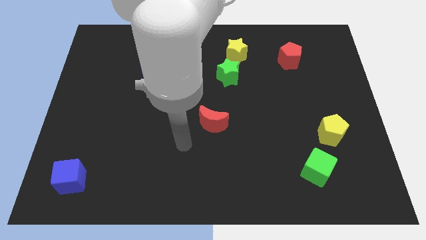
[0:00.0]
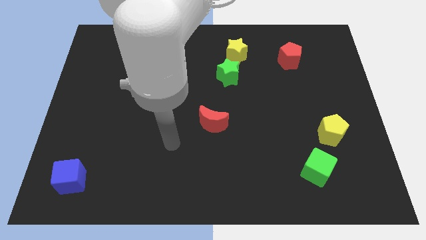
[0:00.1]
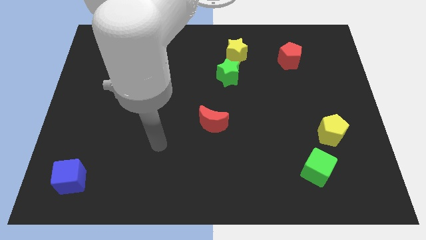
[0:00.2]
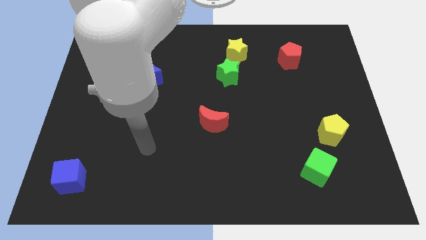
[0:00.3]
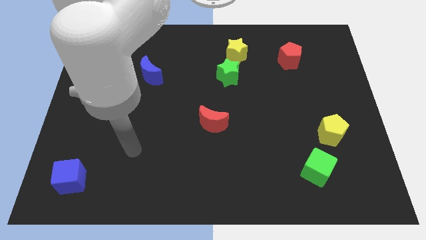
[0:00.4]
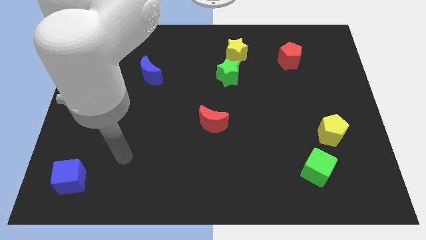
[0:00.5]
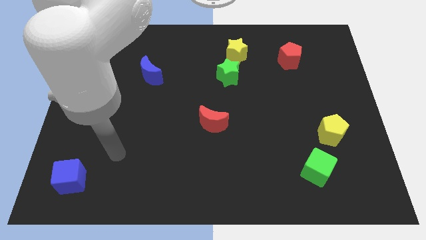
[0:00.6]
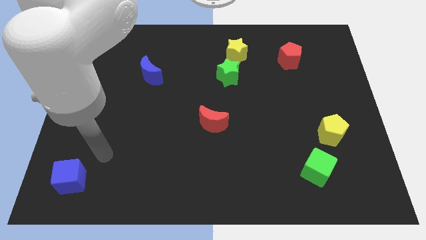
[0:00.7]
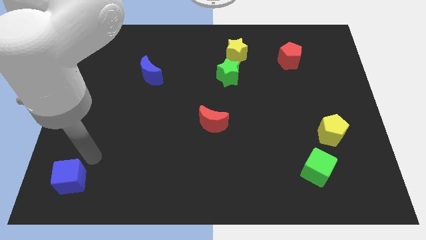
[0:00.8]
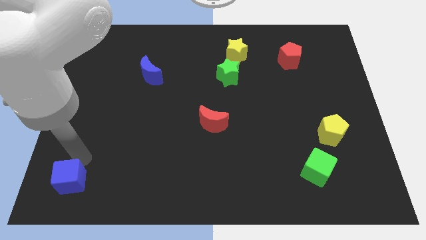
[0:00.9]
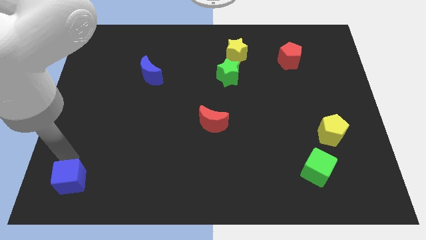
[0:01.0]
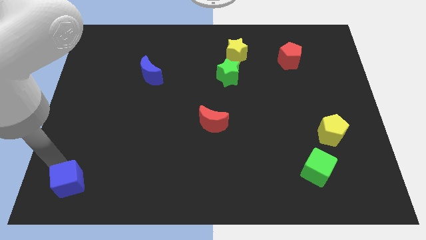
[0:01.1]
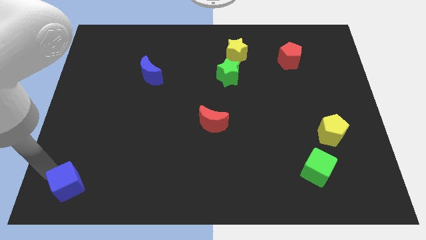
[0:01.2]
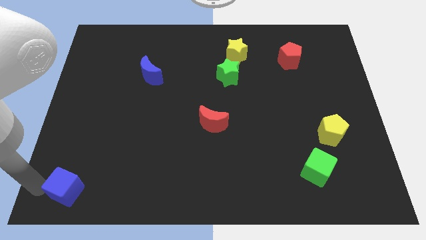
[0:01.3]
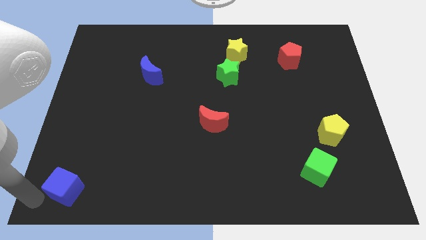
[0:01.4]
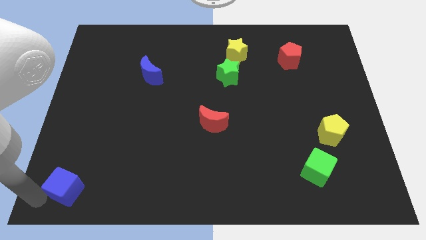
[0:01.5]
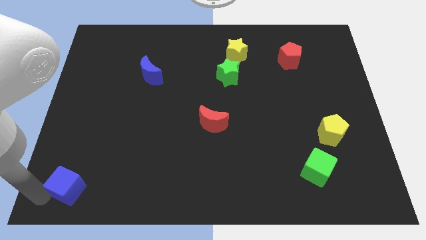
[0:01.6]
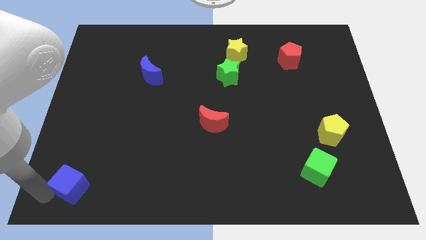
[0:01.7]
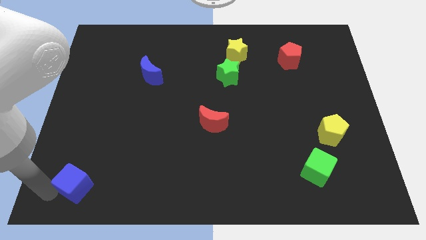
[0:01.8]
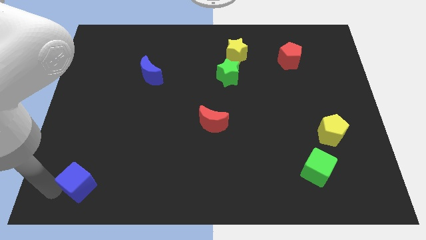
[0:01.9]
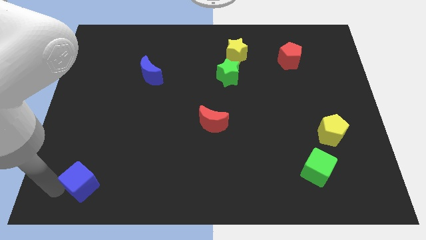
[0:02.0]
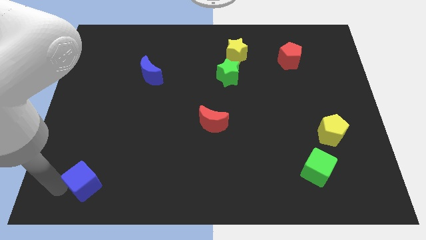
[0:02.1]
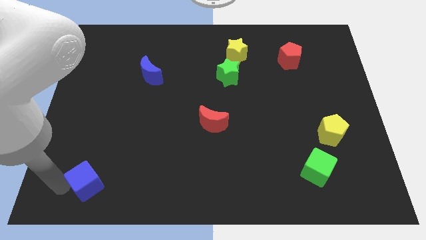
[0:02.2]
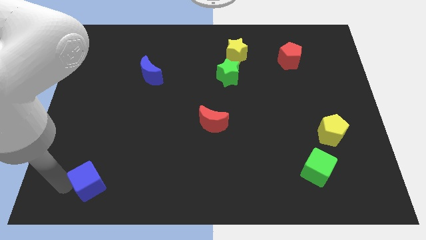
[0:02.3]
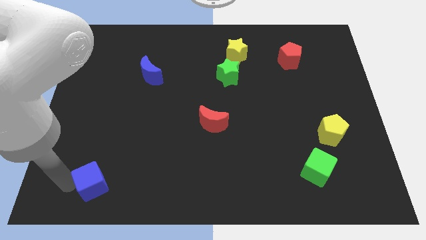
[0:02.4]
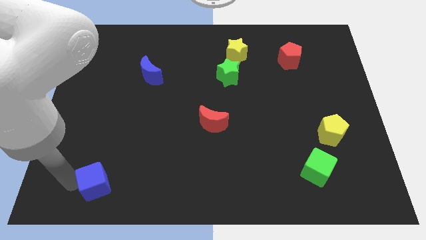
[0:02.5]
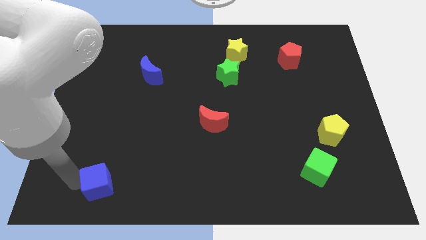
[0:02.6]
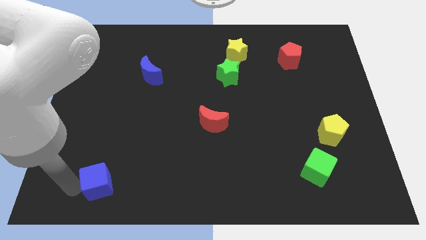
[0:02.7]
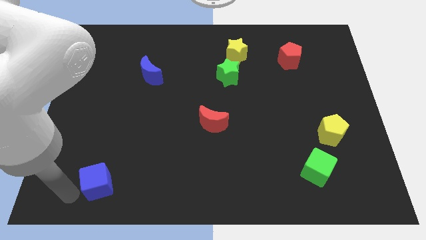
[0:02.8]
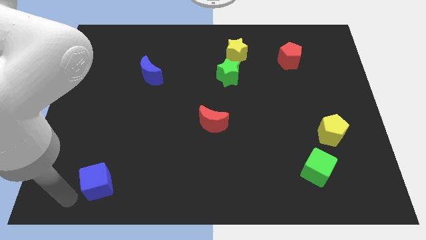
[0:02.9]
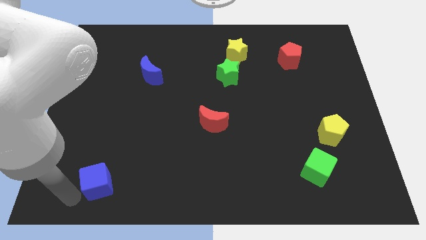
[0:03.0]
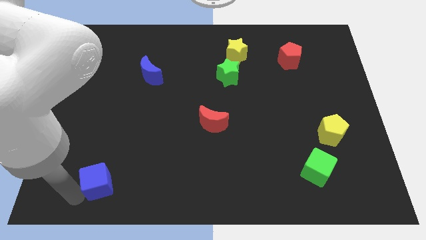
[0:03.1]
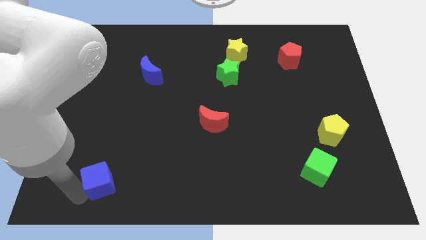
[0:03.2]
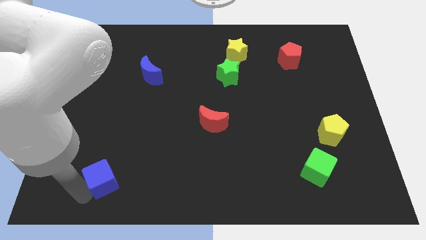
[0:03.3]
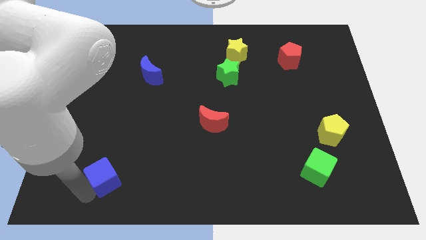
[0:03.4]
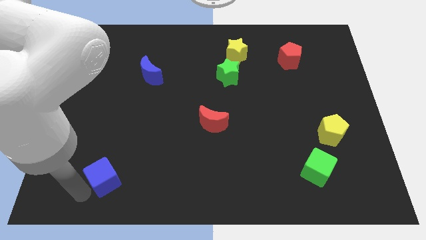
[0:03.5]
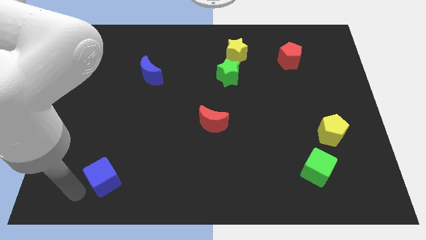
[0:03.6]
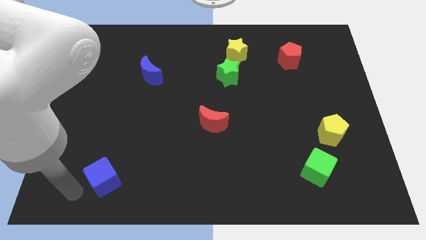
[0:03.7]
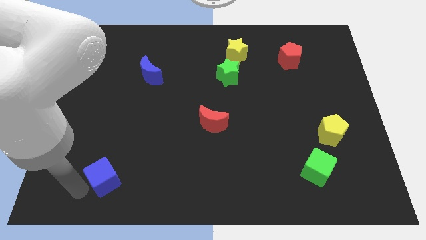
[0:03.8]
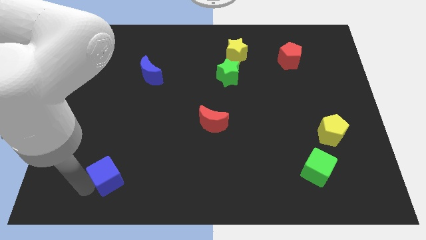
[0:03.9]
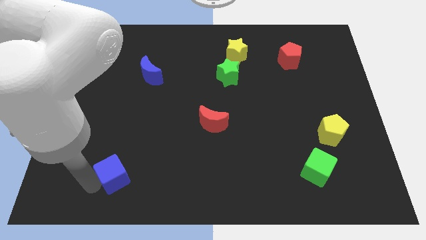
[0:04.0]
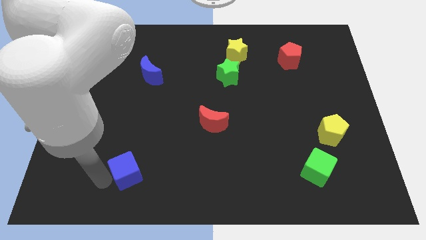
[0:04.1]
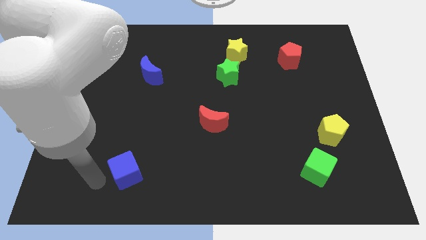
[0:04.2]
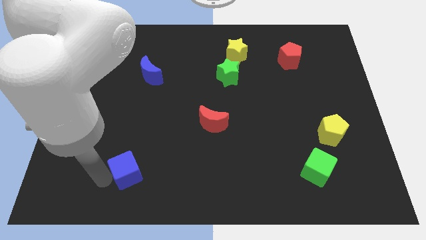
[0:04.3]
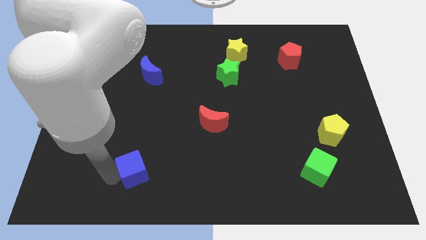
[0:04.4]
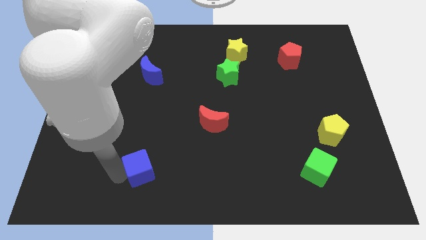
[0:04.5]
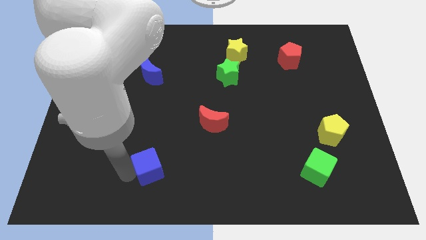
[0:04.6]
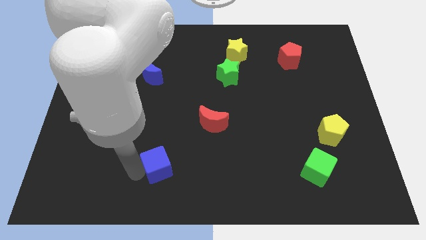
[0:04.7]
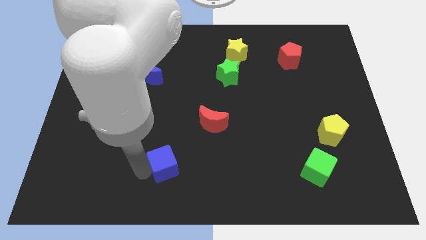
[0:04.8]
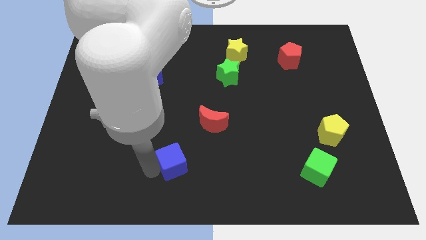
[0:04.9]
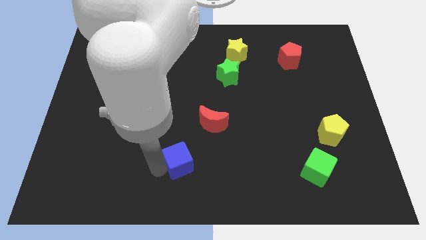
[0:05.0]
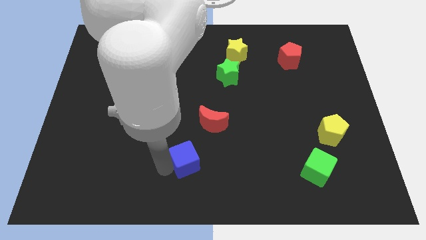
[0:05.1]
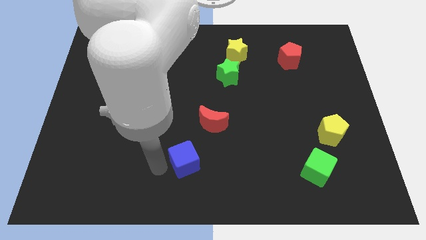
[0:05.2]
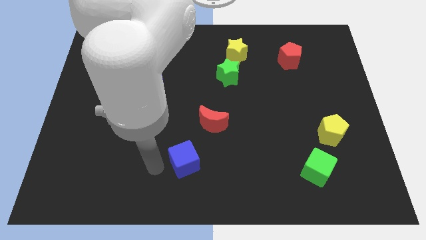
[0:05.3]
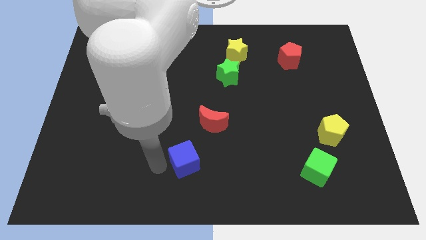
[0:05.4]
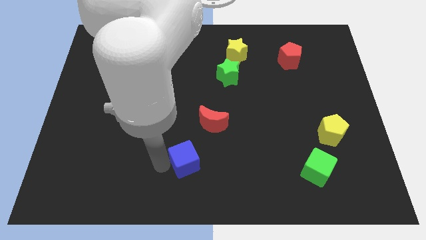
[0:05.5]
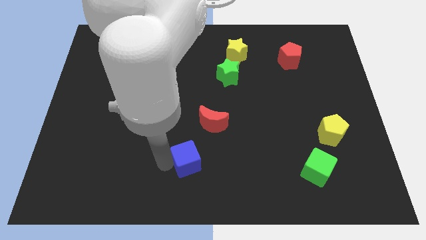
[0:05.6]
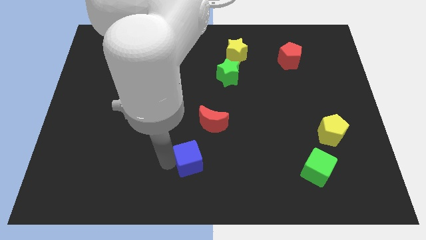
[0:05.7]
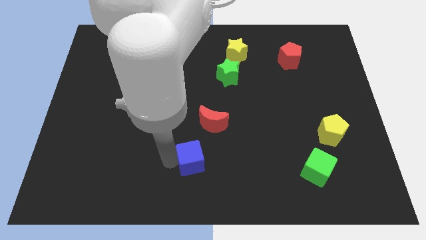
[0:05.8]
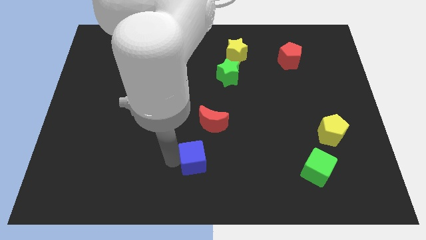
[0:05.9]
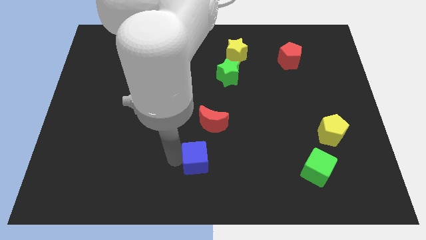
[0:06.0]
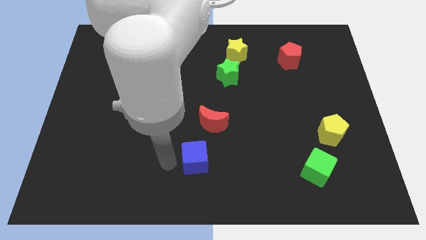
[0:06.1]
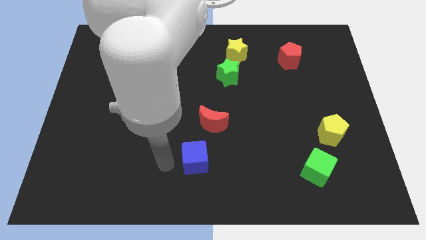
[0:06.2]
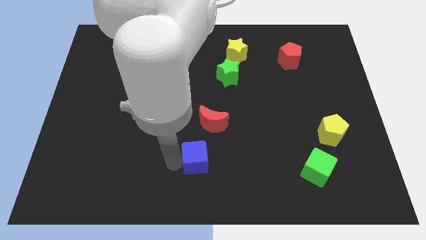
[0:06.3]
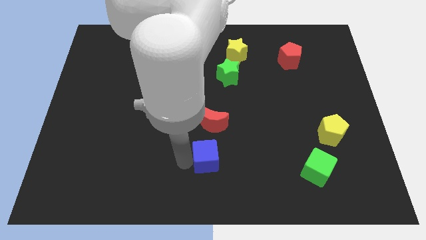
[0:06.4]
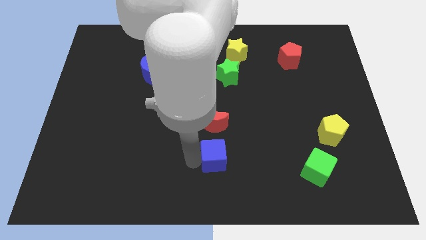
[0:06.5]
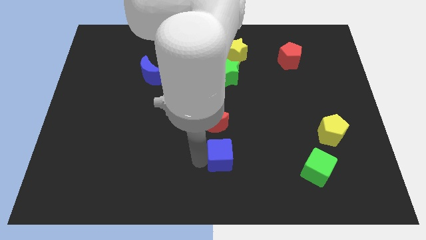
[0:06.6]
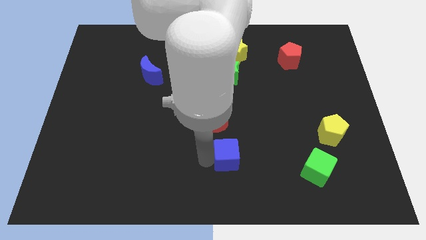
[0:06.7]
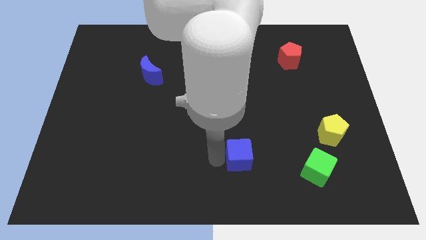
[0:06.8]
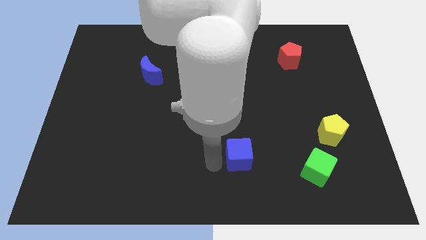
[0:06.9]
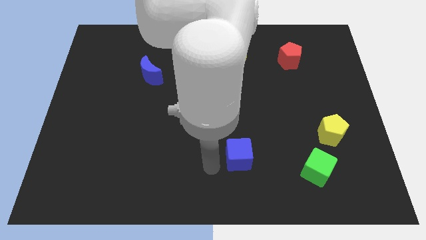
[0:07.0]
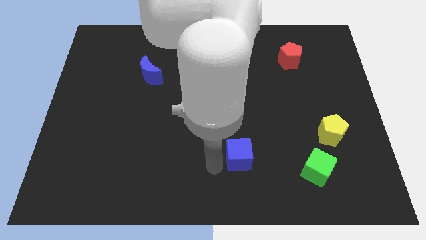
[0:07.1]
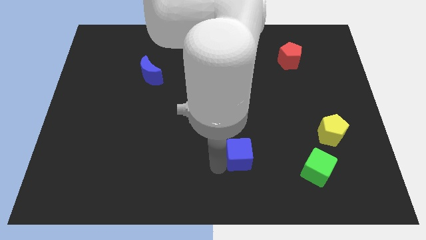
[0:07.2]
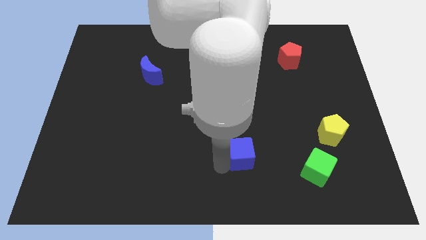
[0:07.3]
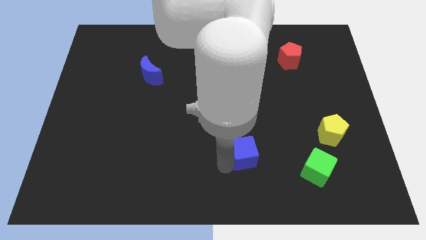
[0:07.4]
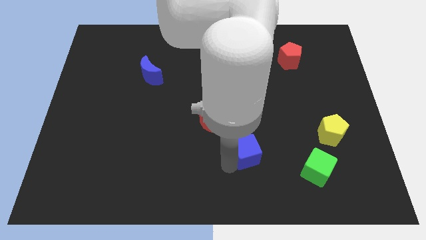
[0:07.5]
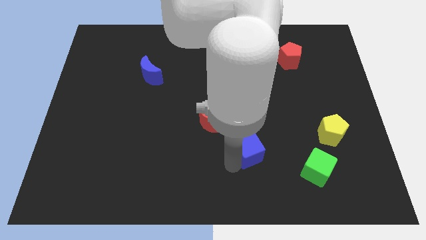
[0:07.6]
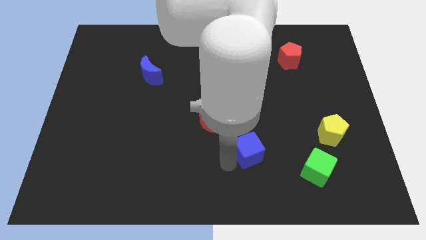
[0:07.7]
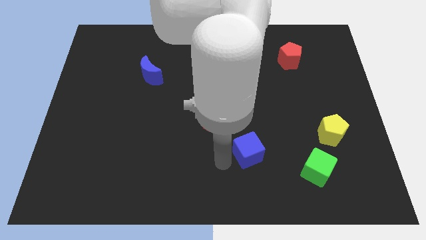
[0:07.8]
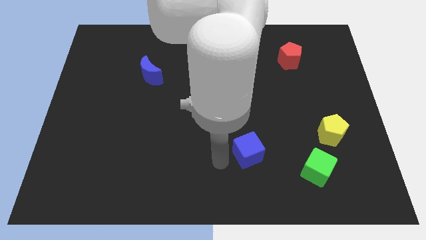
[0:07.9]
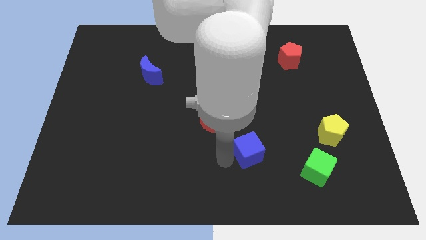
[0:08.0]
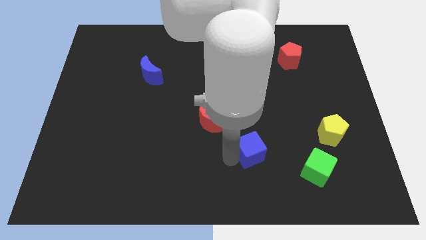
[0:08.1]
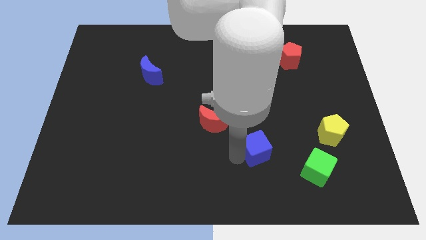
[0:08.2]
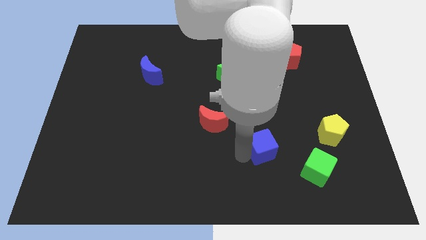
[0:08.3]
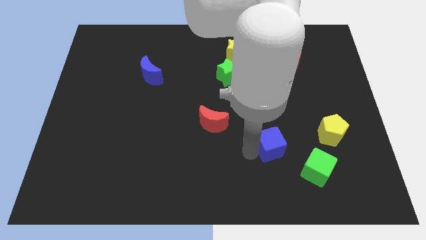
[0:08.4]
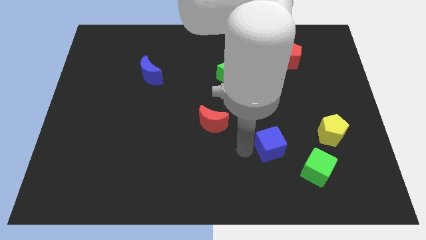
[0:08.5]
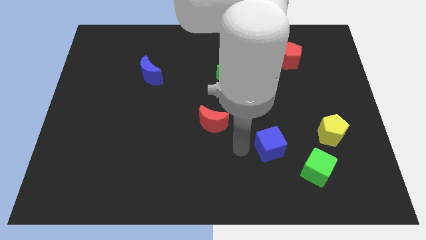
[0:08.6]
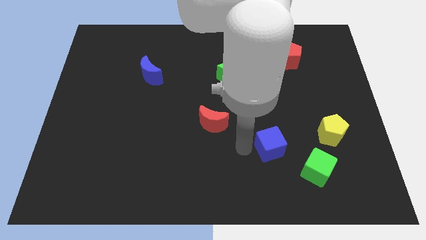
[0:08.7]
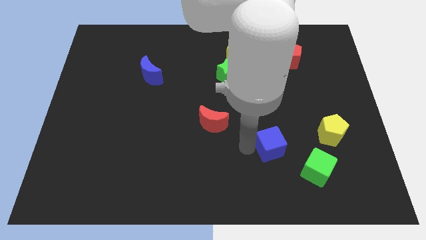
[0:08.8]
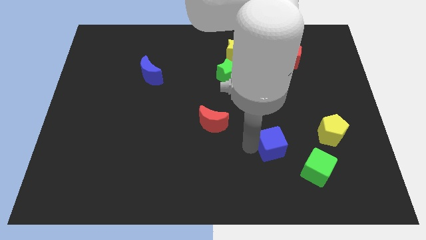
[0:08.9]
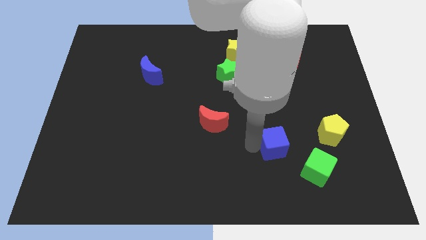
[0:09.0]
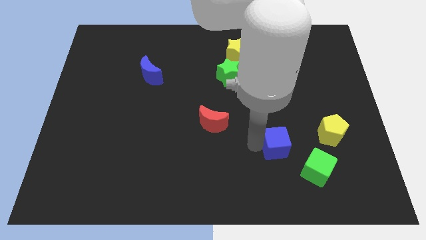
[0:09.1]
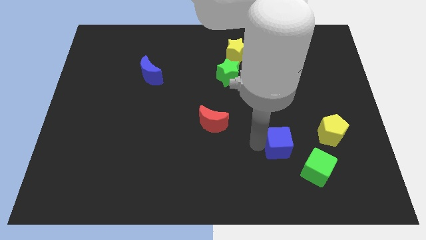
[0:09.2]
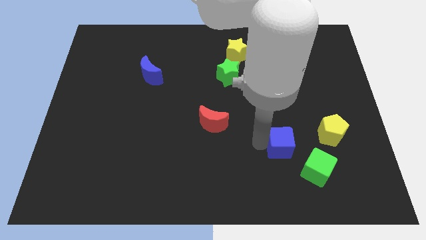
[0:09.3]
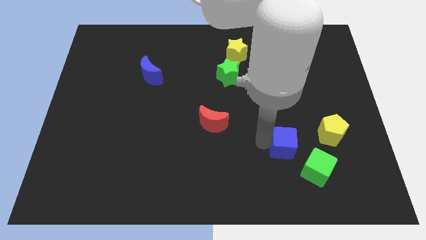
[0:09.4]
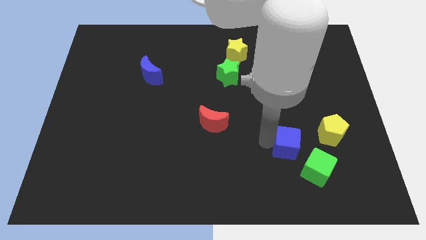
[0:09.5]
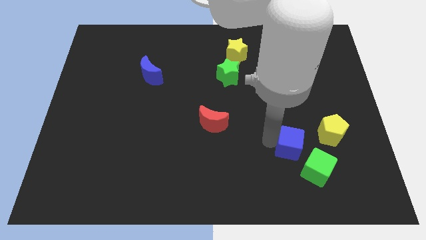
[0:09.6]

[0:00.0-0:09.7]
slide the blue cube to the bottom left of the yellow pentagon
